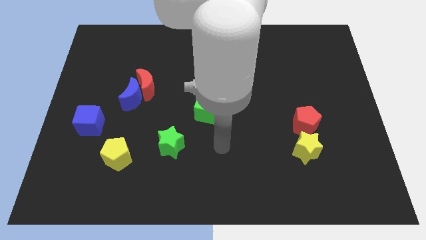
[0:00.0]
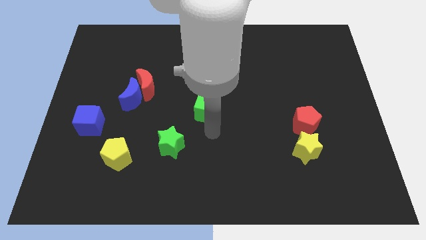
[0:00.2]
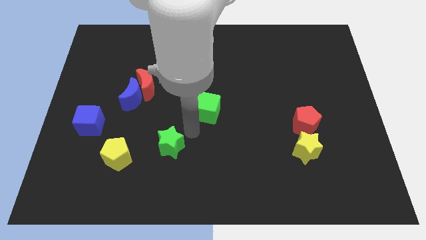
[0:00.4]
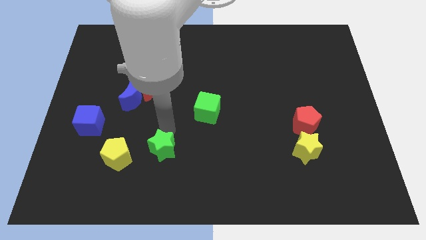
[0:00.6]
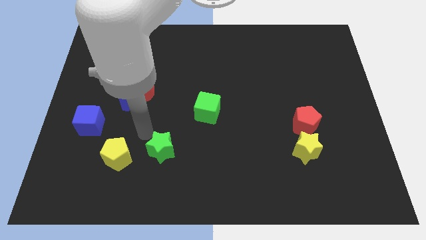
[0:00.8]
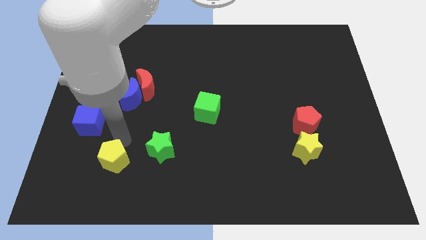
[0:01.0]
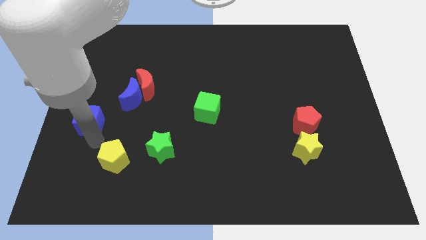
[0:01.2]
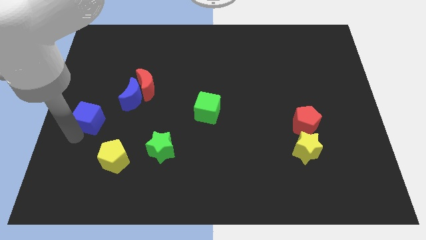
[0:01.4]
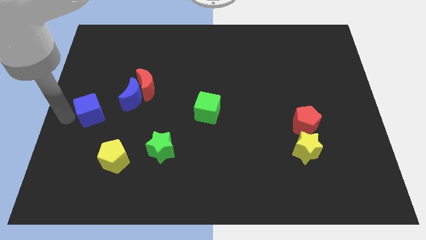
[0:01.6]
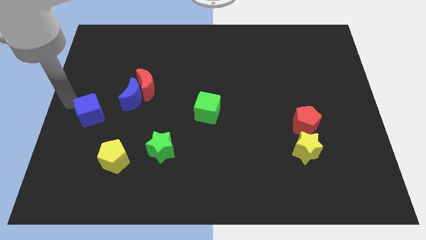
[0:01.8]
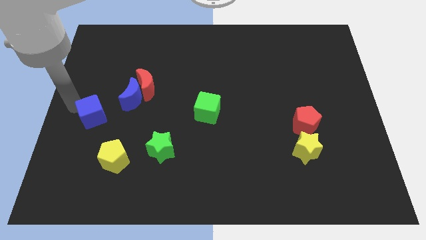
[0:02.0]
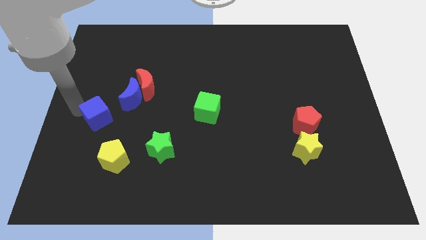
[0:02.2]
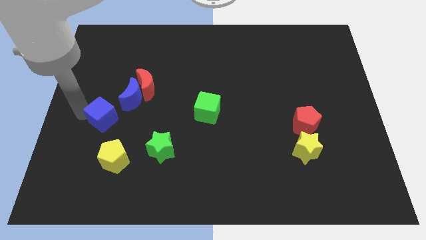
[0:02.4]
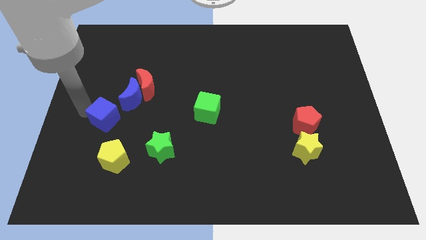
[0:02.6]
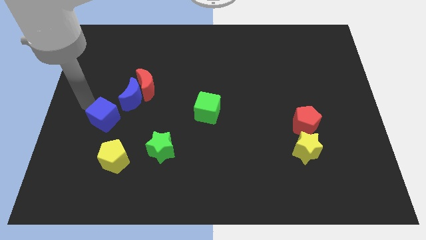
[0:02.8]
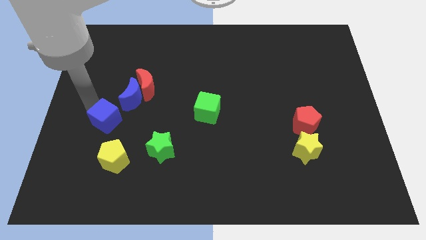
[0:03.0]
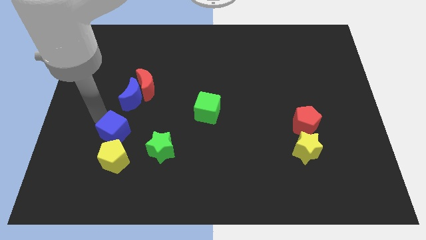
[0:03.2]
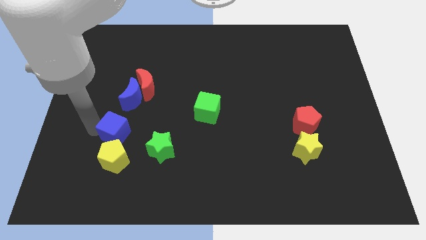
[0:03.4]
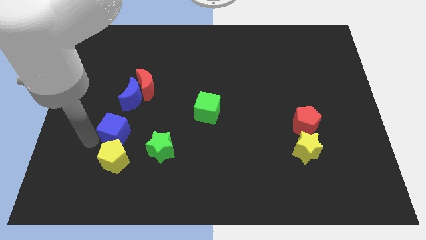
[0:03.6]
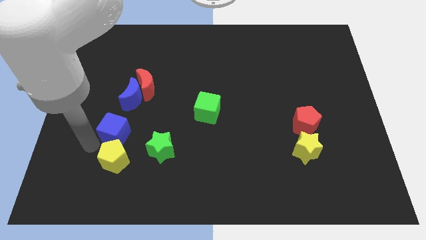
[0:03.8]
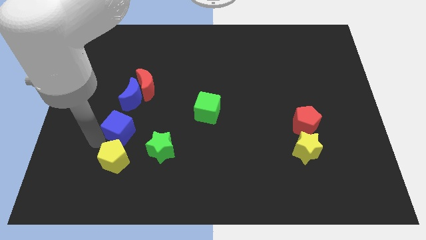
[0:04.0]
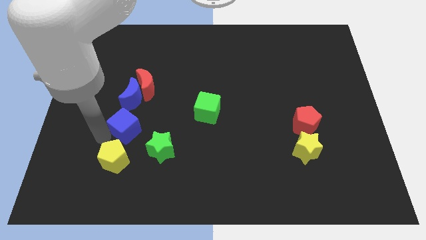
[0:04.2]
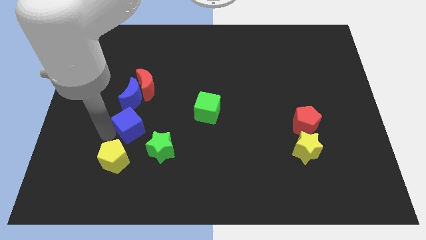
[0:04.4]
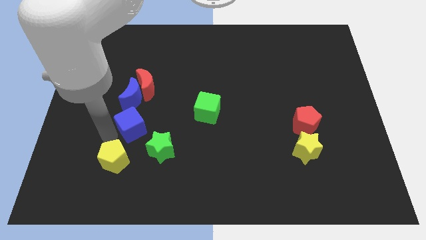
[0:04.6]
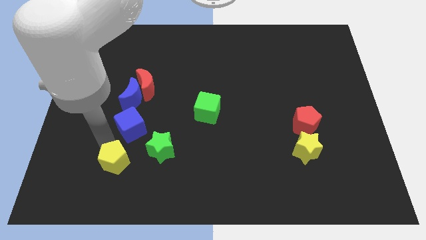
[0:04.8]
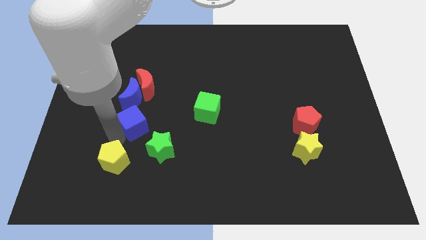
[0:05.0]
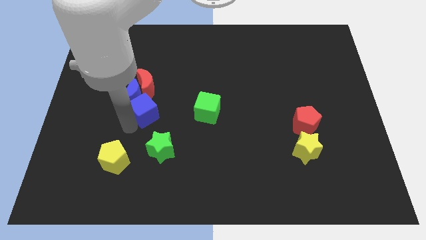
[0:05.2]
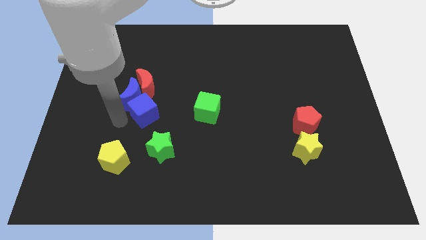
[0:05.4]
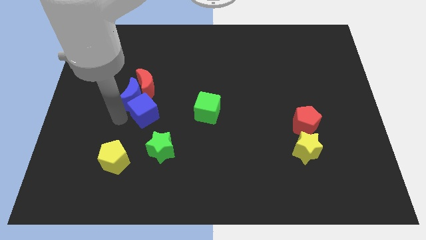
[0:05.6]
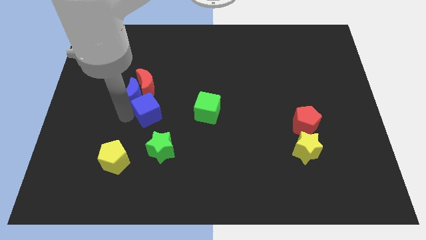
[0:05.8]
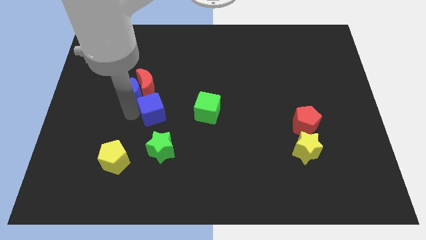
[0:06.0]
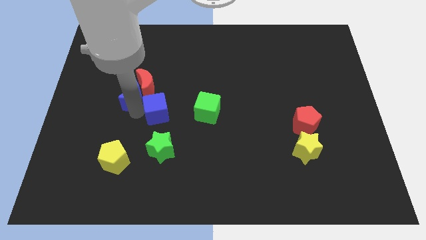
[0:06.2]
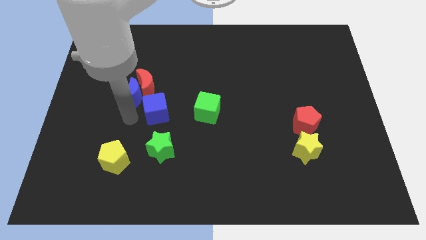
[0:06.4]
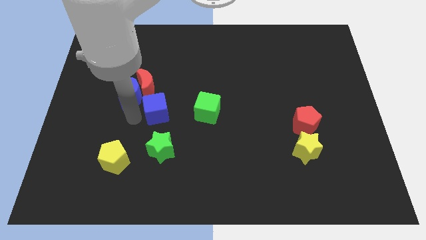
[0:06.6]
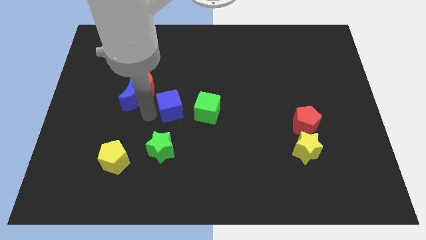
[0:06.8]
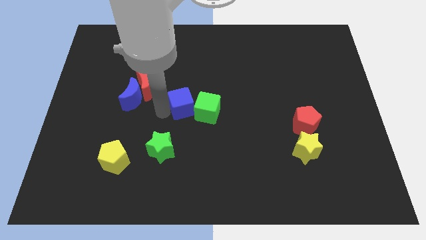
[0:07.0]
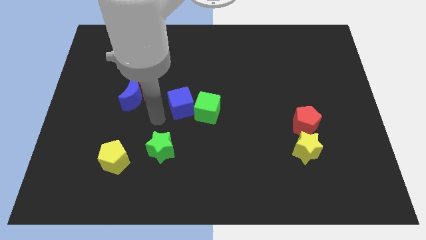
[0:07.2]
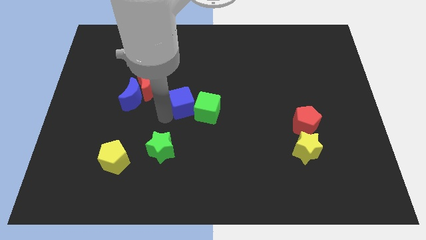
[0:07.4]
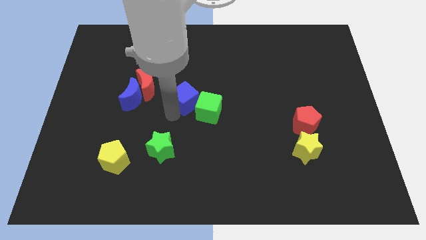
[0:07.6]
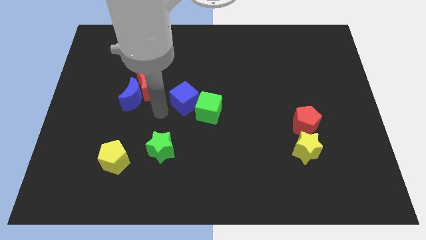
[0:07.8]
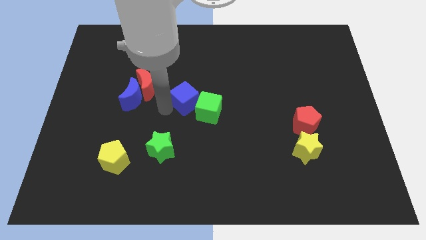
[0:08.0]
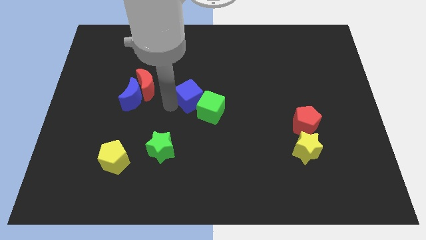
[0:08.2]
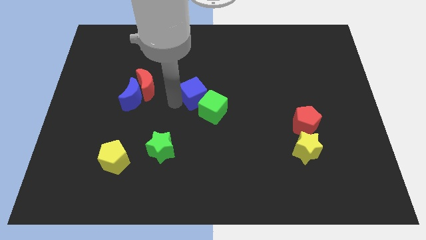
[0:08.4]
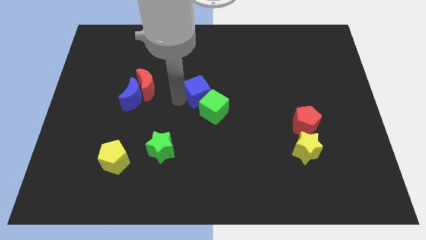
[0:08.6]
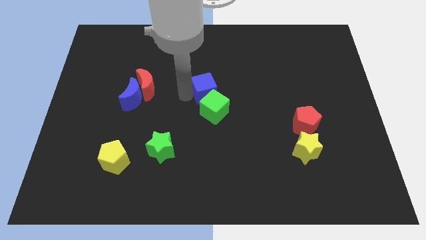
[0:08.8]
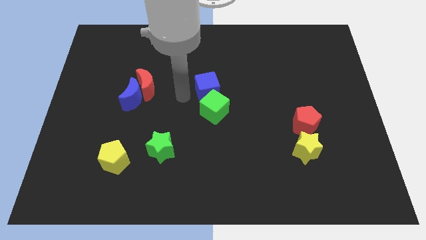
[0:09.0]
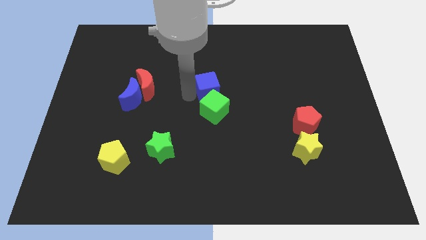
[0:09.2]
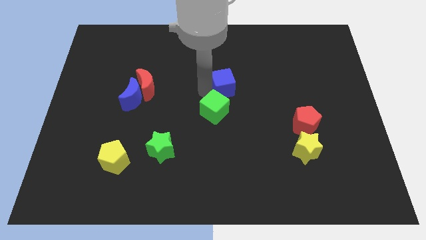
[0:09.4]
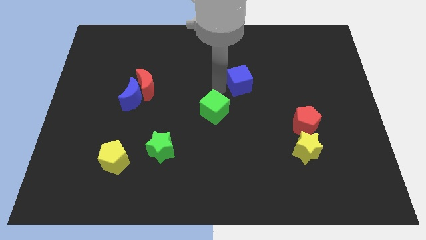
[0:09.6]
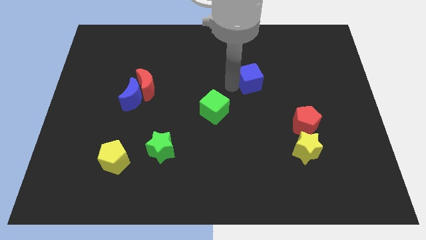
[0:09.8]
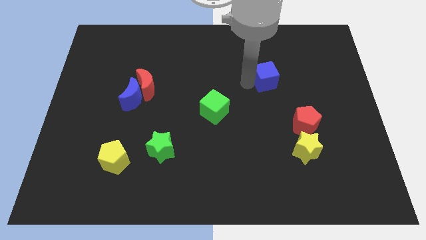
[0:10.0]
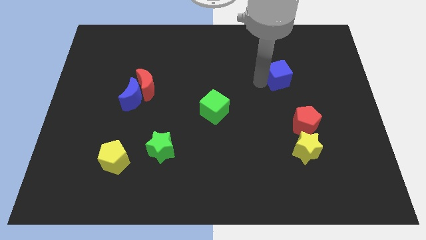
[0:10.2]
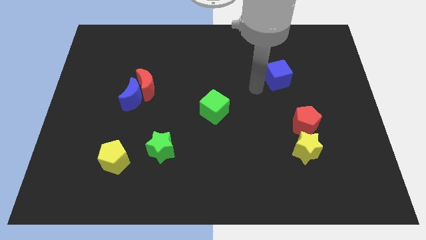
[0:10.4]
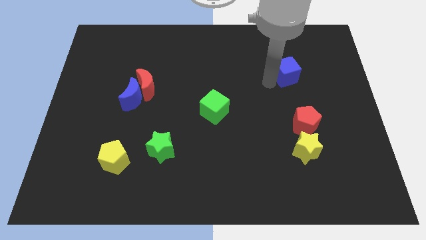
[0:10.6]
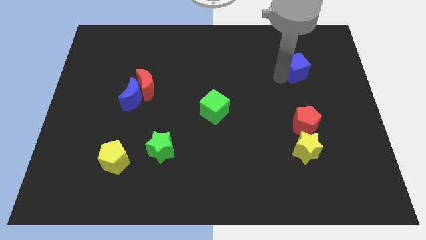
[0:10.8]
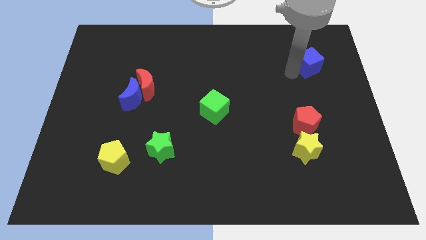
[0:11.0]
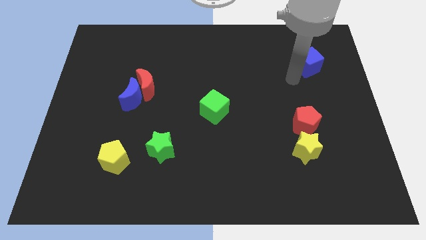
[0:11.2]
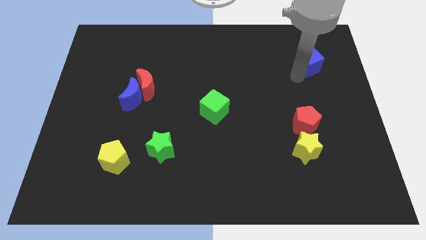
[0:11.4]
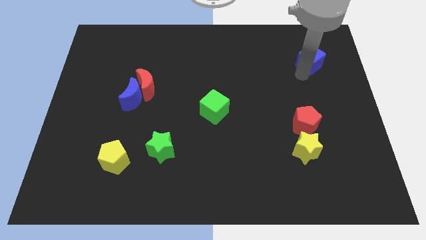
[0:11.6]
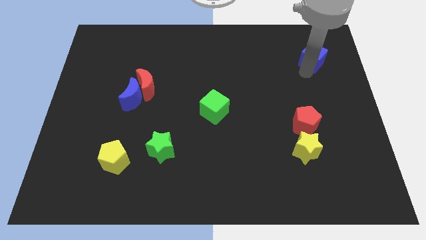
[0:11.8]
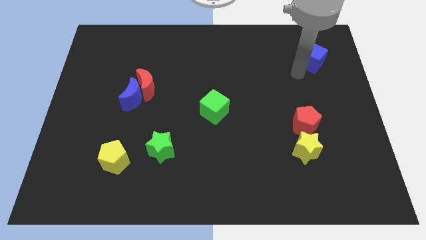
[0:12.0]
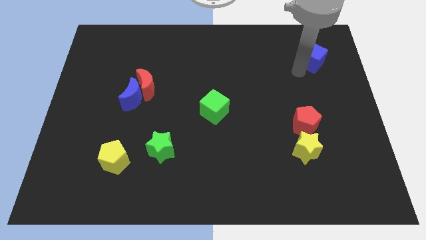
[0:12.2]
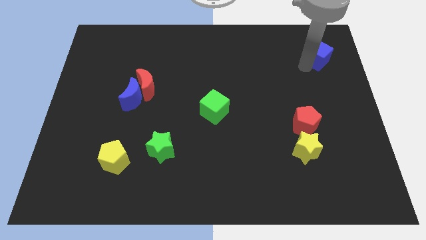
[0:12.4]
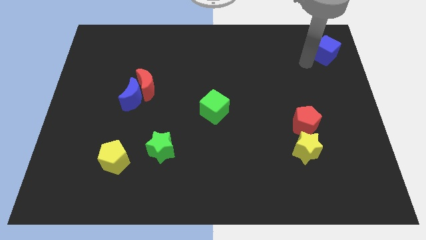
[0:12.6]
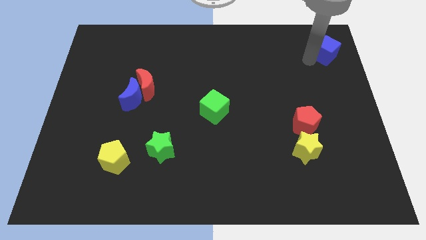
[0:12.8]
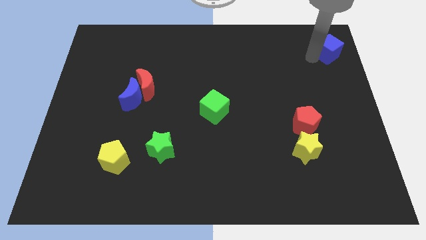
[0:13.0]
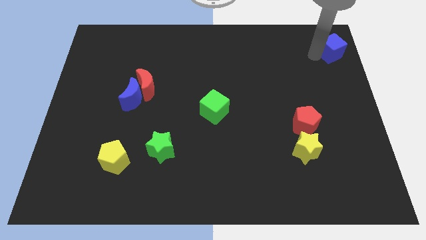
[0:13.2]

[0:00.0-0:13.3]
slide the blue cube to the upper right corner
